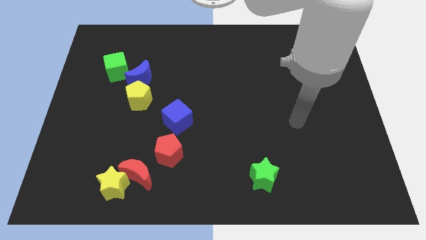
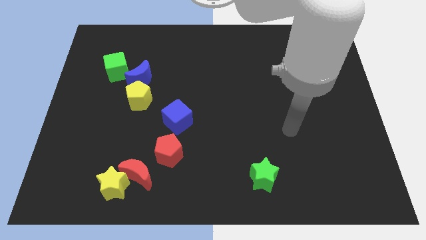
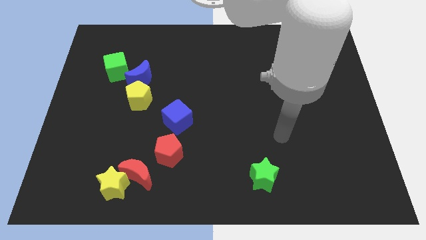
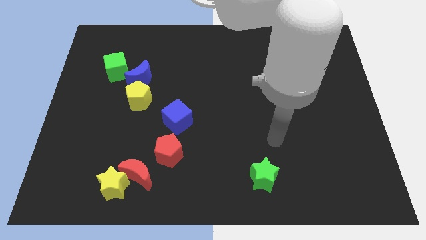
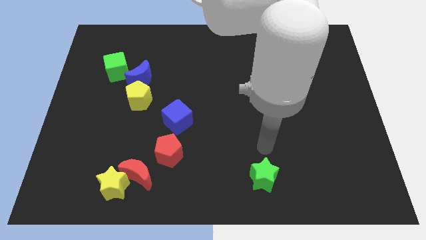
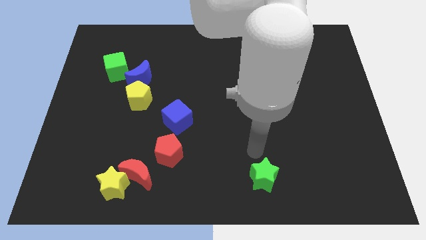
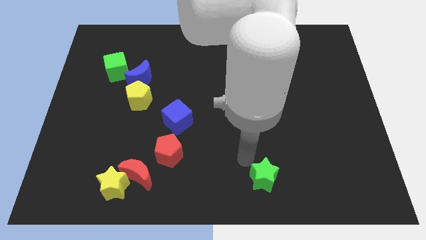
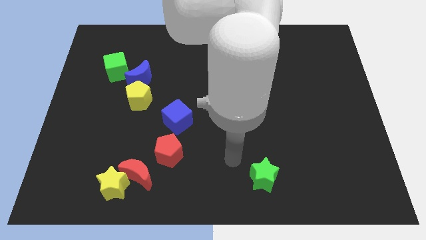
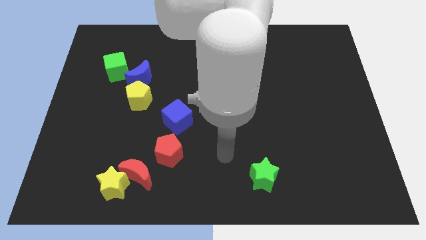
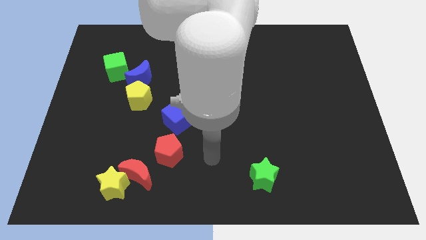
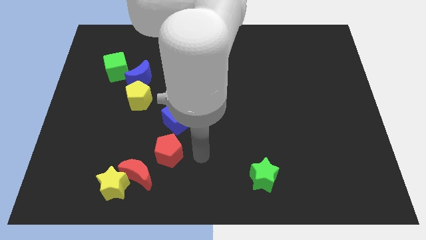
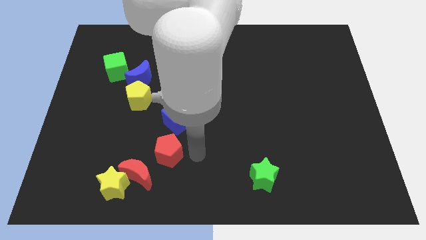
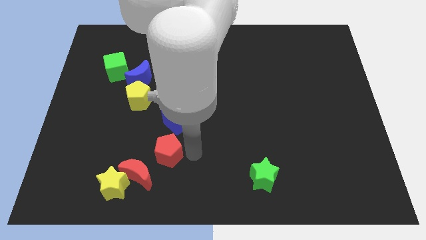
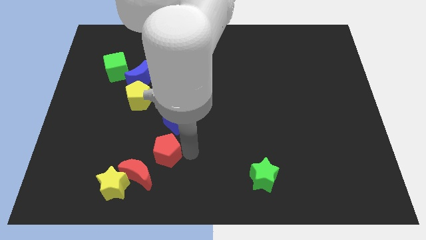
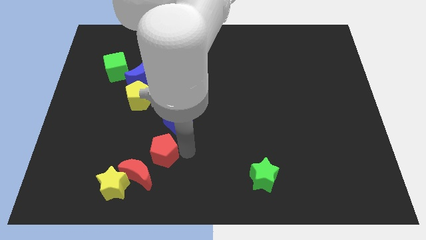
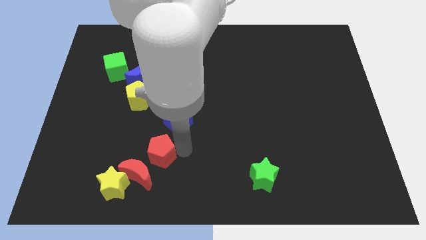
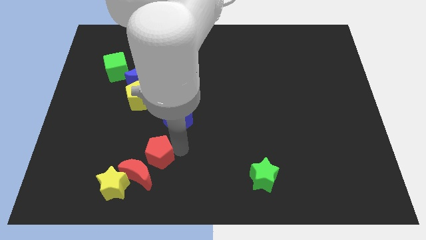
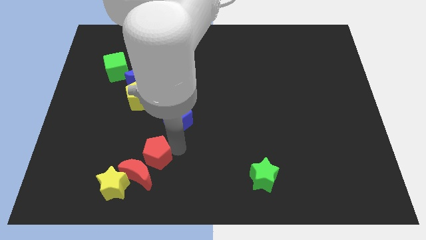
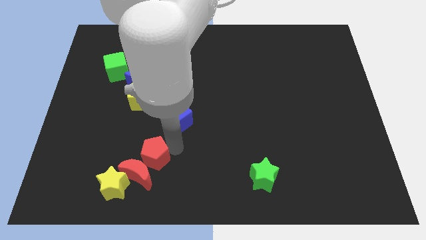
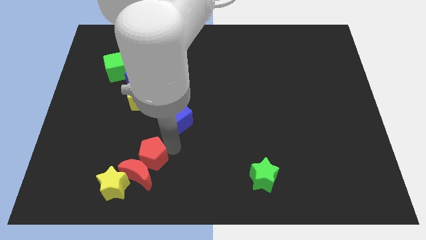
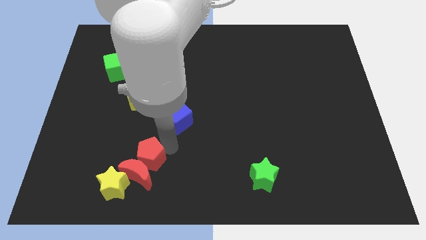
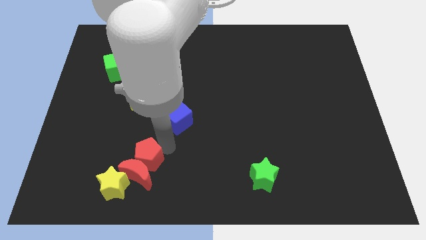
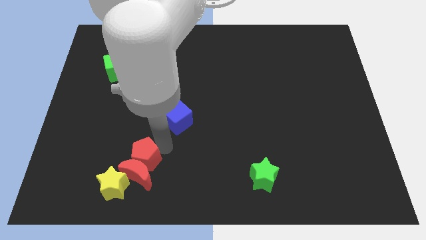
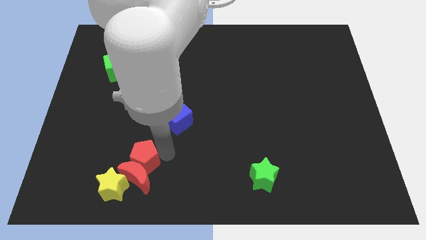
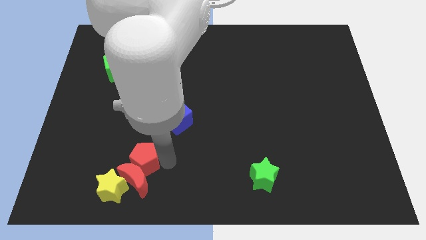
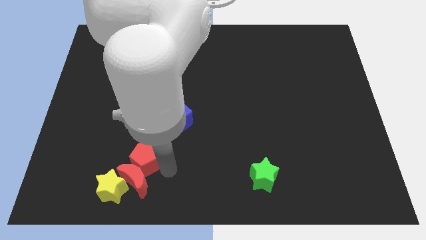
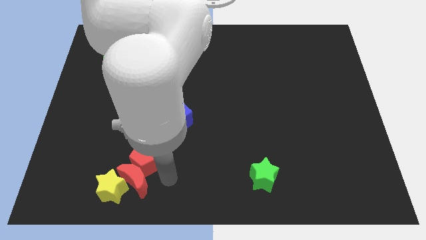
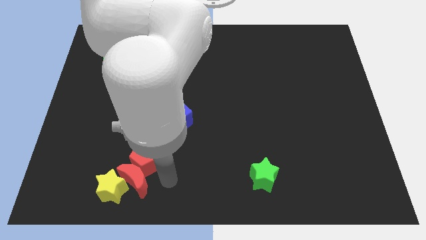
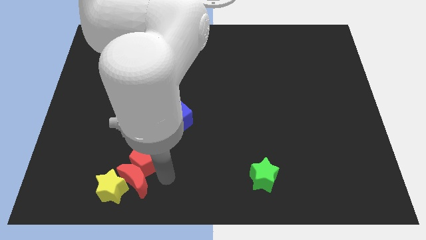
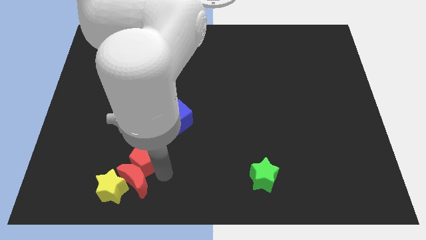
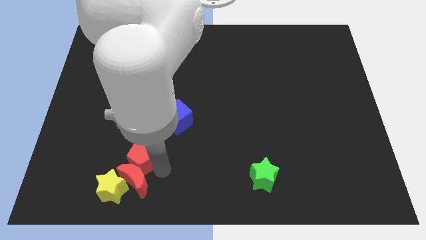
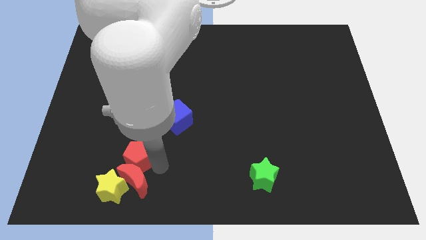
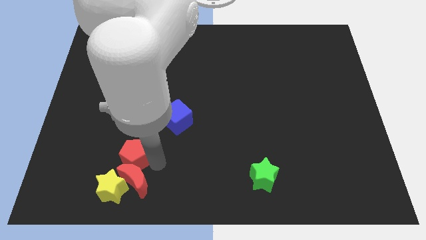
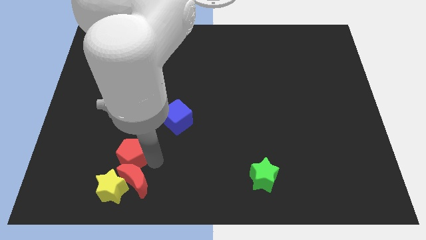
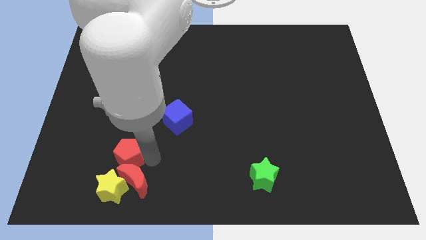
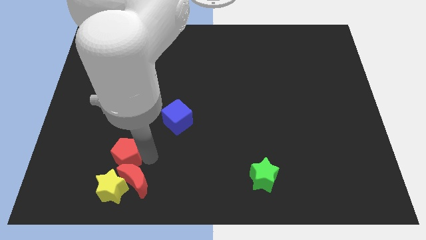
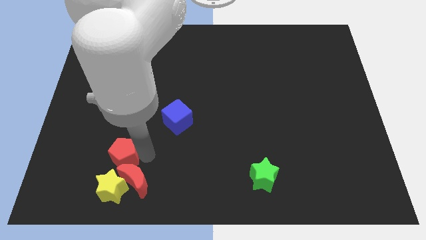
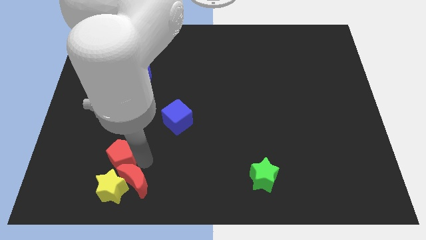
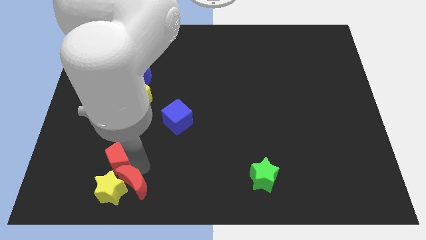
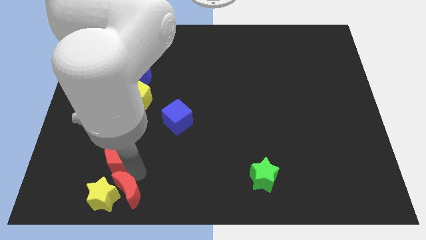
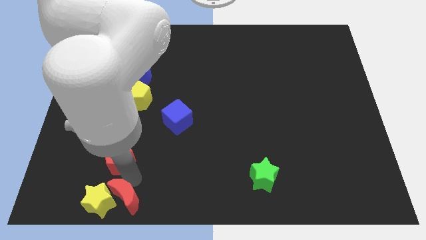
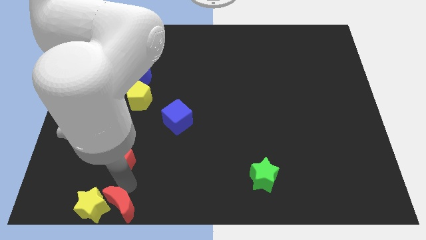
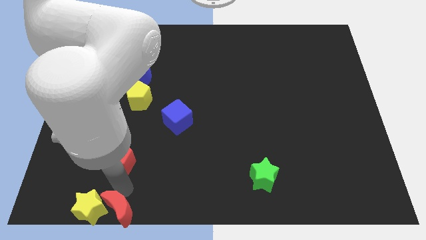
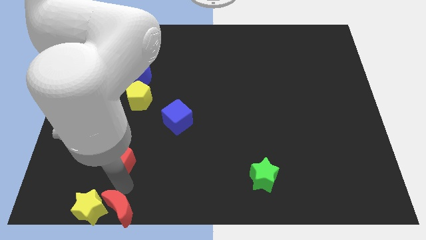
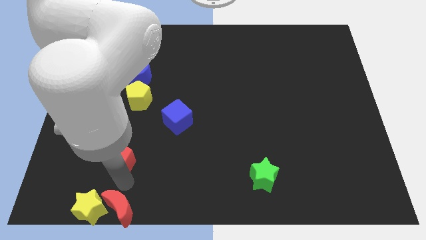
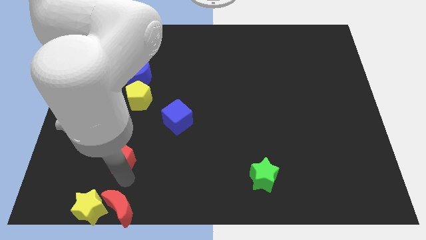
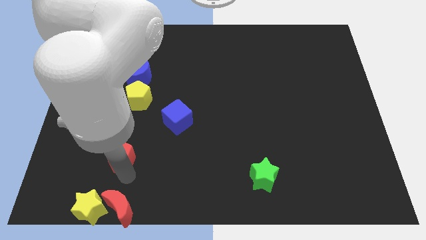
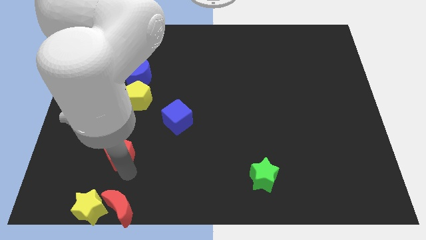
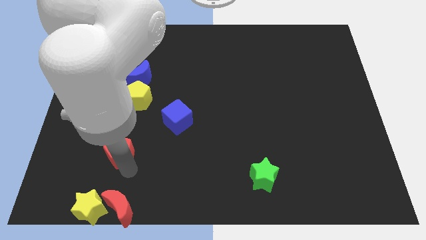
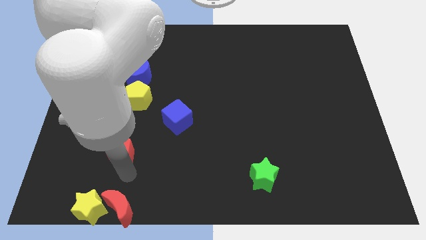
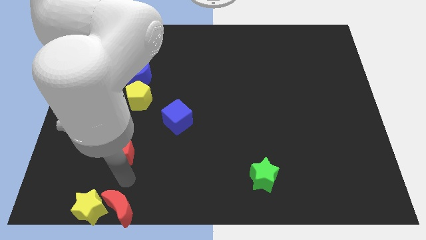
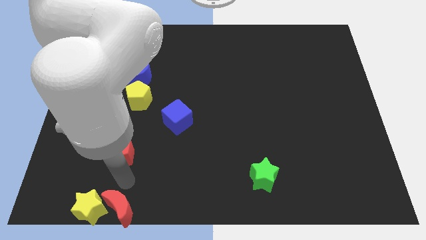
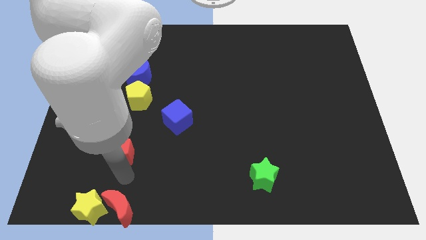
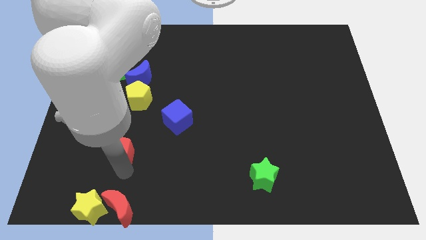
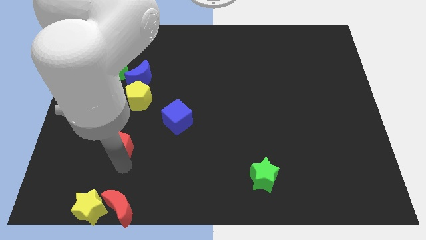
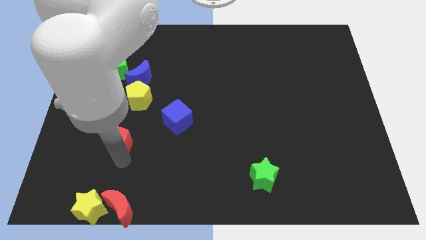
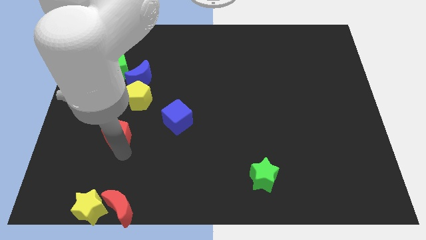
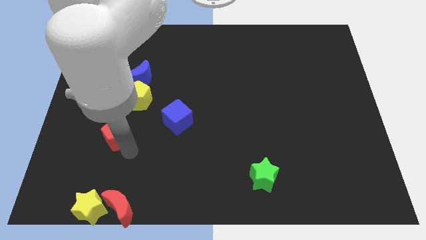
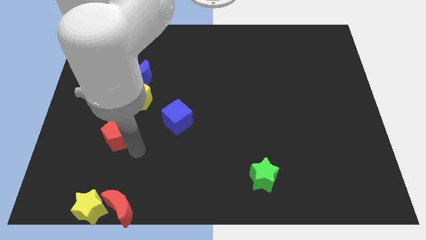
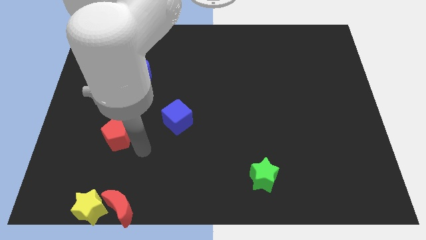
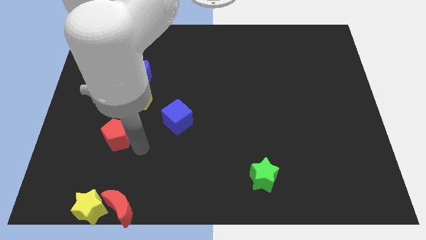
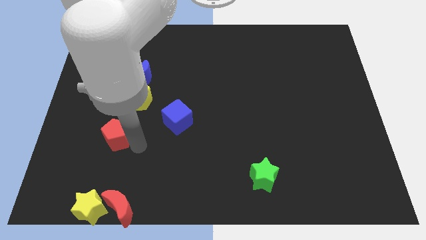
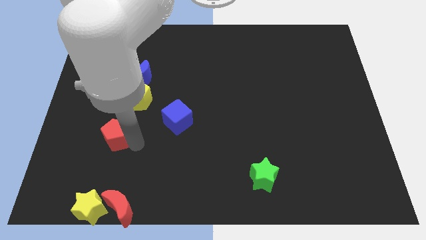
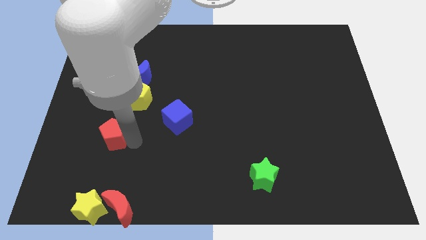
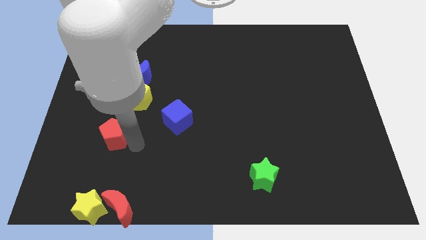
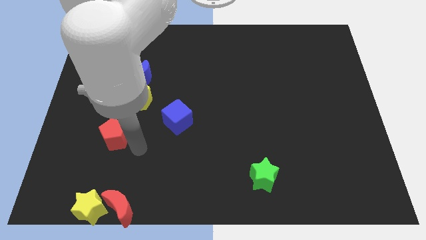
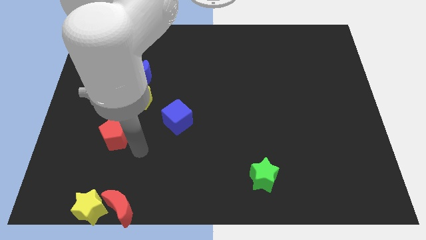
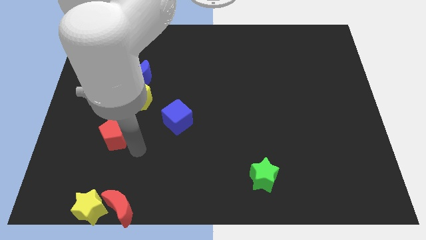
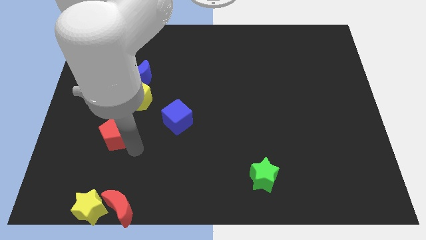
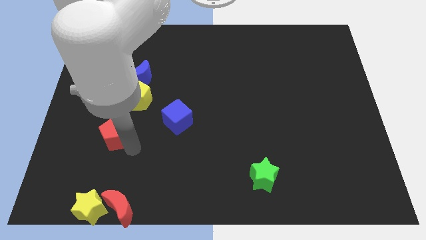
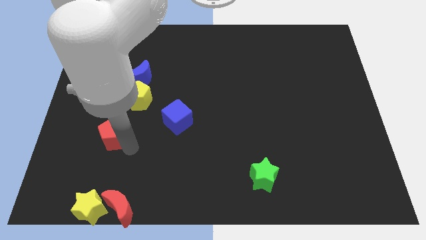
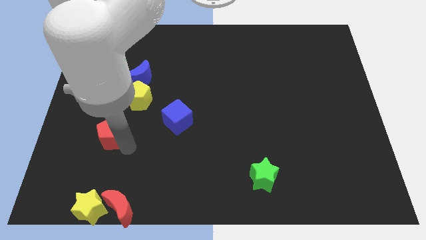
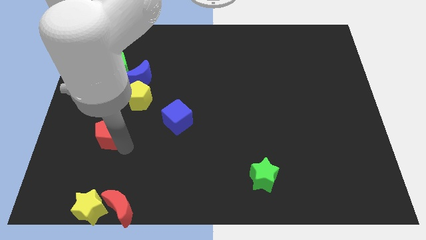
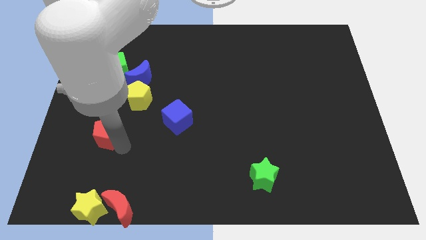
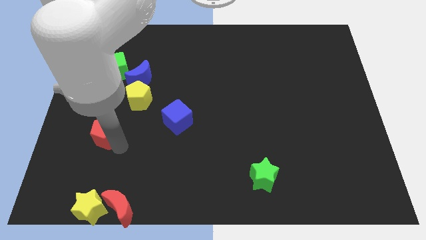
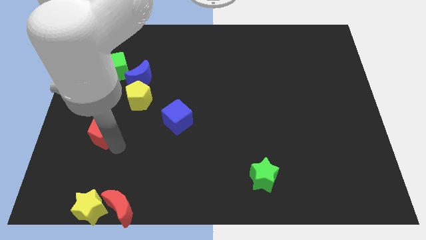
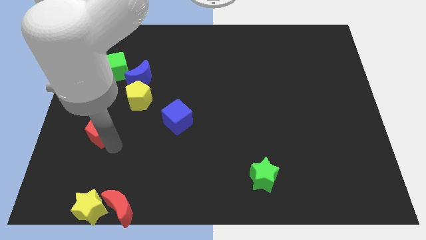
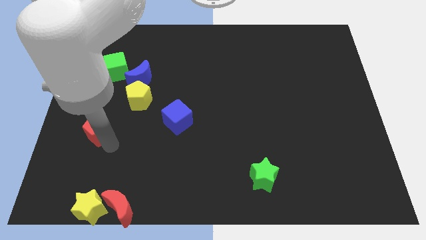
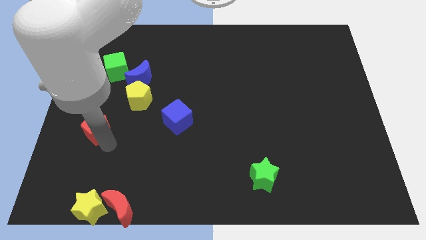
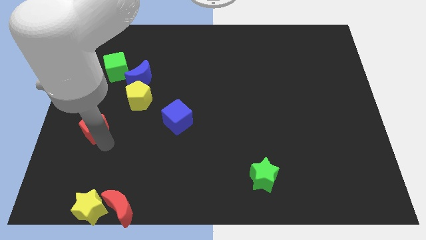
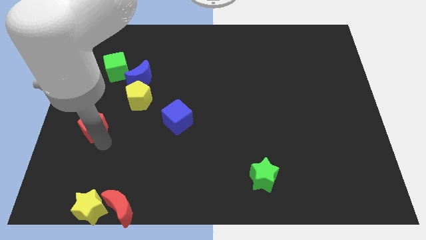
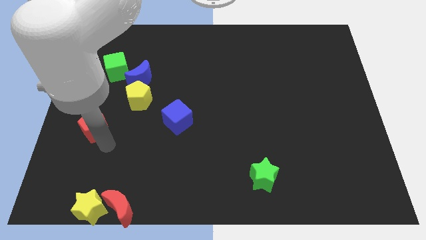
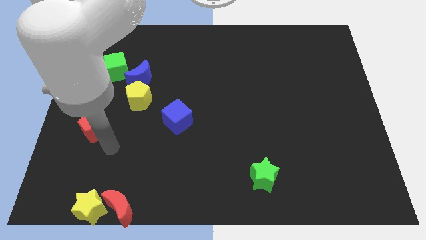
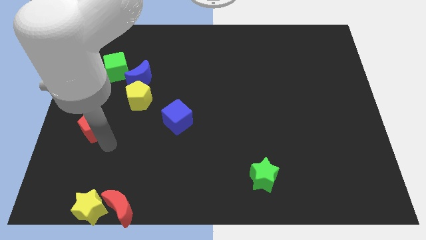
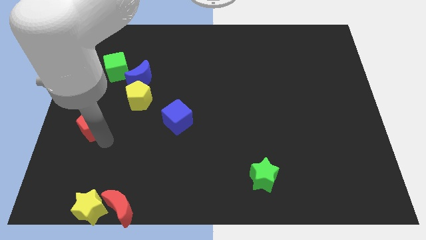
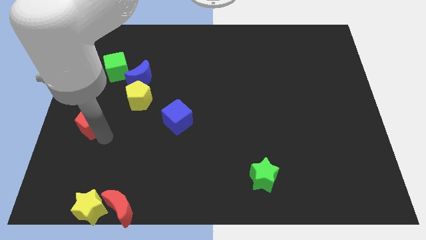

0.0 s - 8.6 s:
move the red pentagon to the left side
